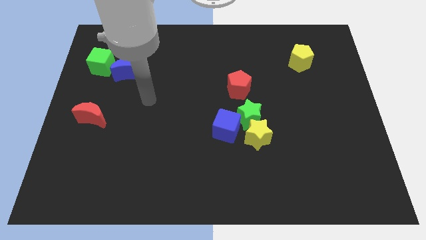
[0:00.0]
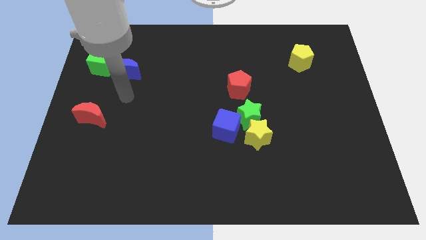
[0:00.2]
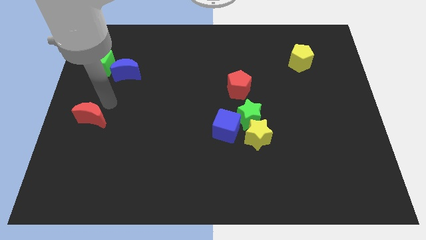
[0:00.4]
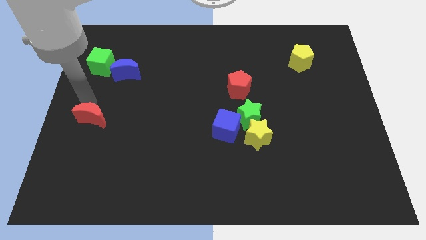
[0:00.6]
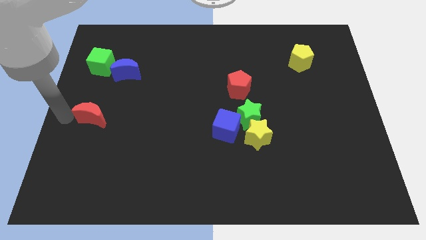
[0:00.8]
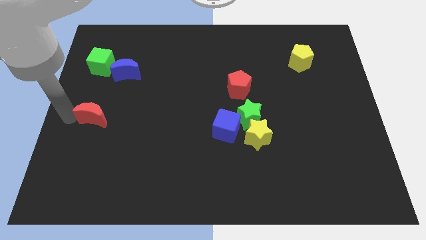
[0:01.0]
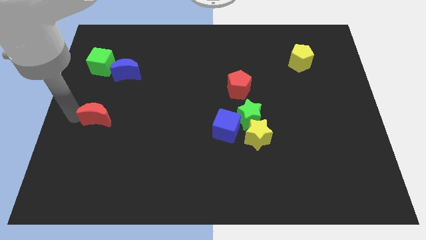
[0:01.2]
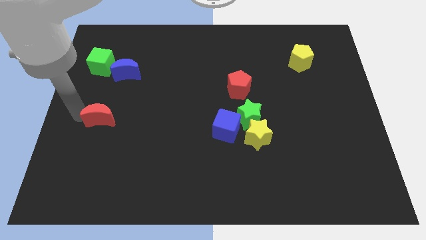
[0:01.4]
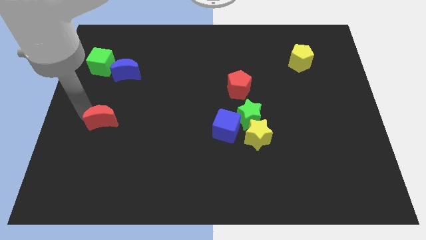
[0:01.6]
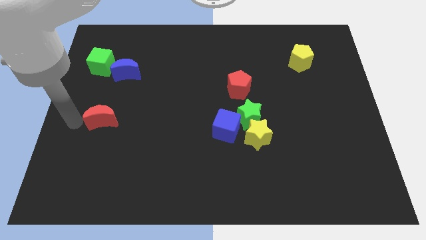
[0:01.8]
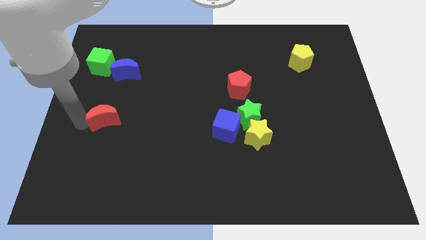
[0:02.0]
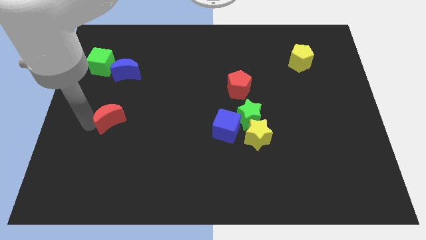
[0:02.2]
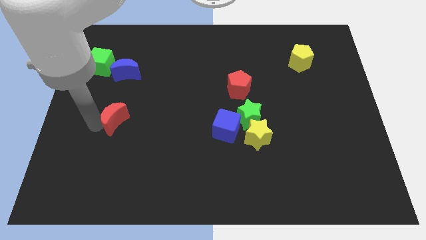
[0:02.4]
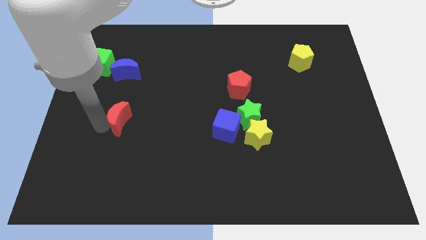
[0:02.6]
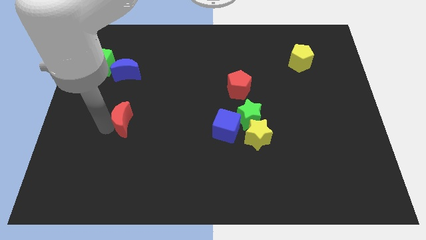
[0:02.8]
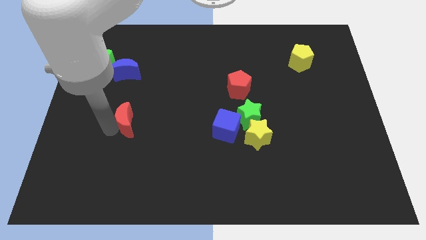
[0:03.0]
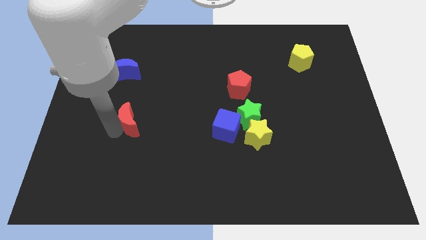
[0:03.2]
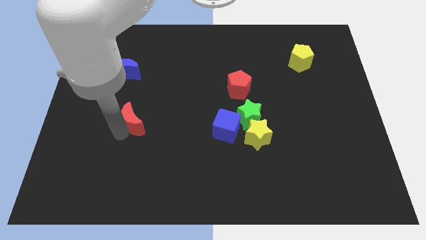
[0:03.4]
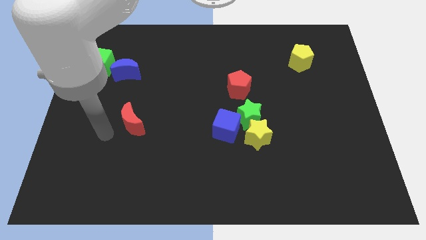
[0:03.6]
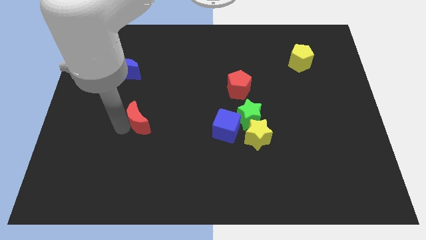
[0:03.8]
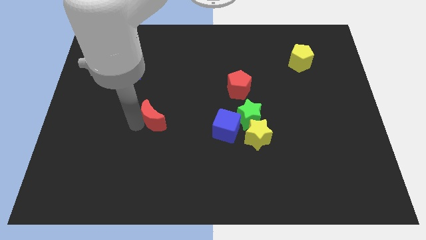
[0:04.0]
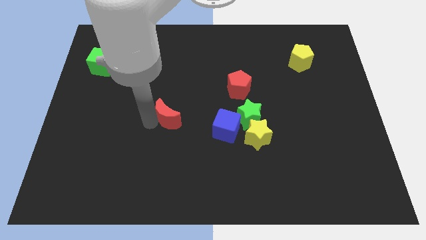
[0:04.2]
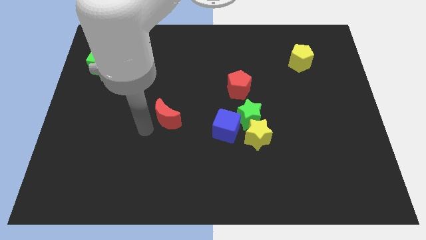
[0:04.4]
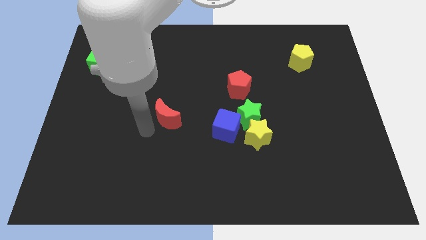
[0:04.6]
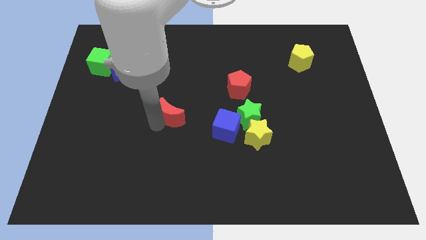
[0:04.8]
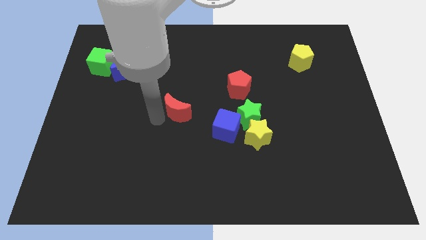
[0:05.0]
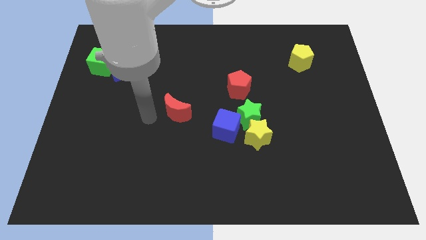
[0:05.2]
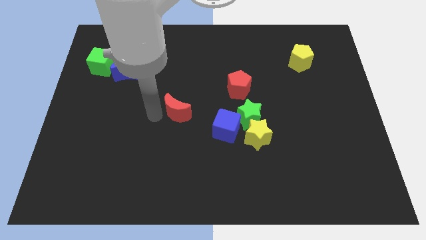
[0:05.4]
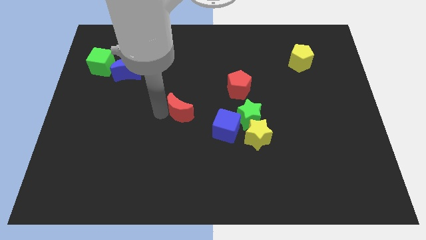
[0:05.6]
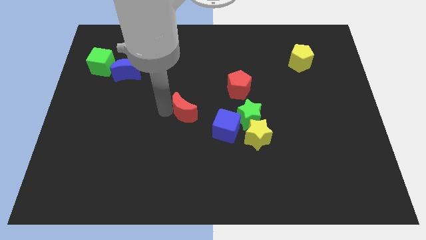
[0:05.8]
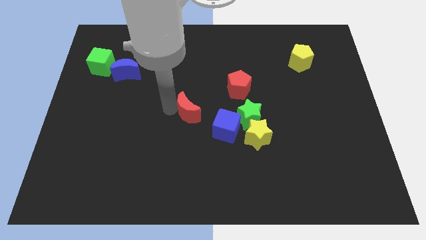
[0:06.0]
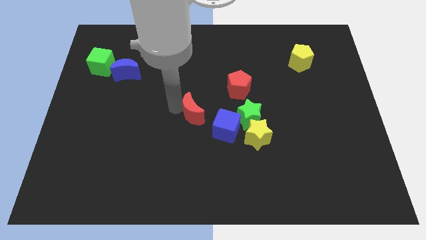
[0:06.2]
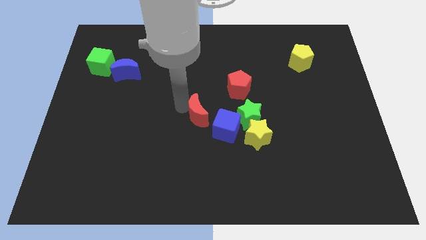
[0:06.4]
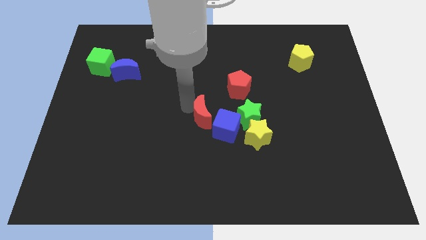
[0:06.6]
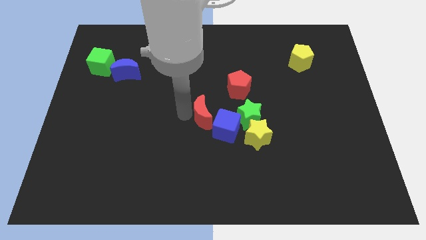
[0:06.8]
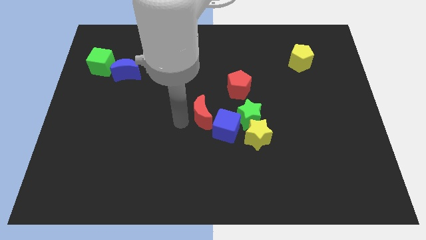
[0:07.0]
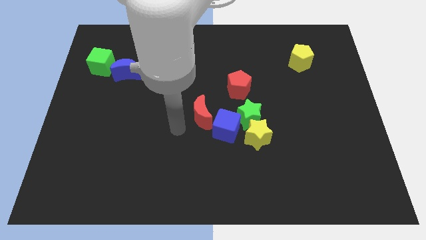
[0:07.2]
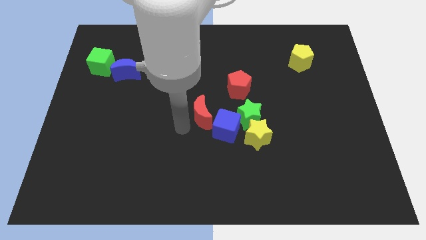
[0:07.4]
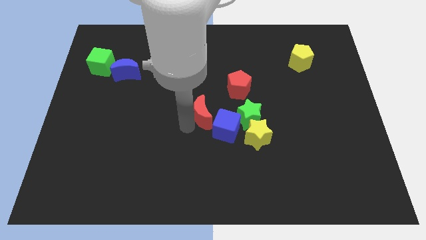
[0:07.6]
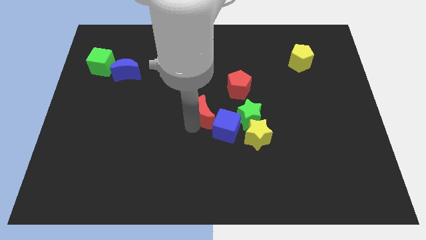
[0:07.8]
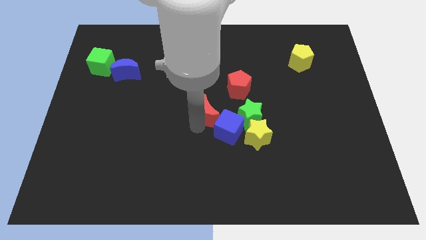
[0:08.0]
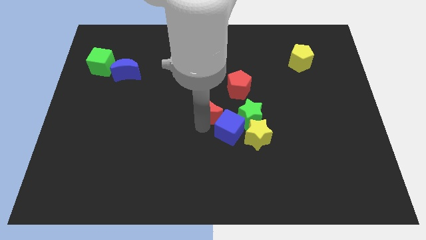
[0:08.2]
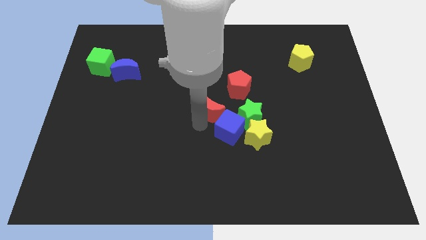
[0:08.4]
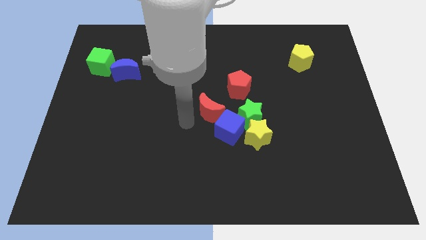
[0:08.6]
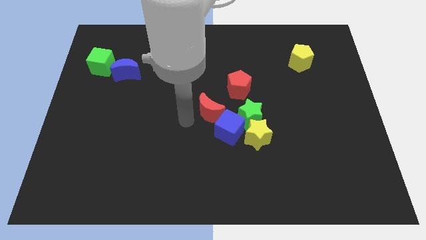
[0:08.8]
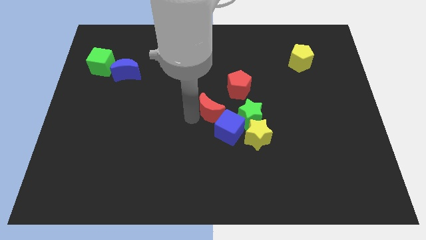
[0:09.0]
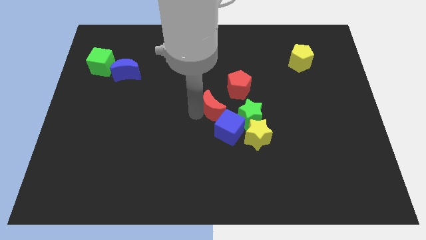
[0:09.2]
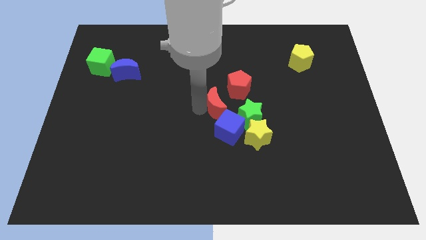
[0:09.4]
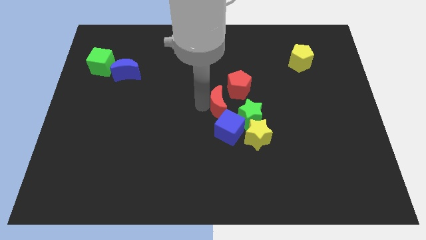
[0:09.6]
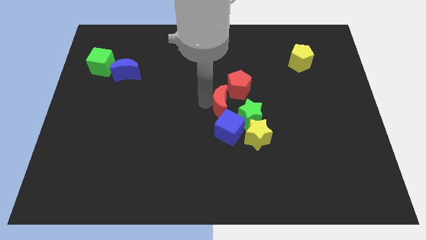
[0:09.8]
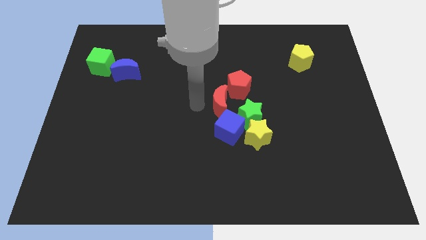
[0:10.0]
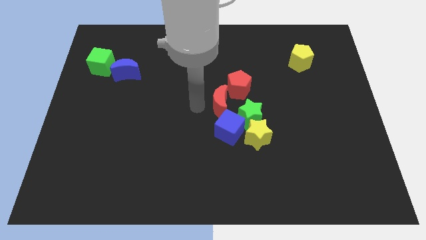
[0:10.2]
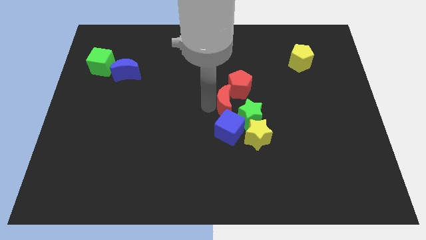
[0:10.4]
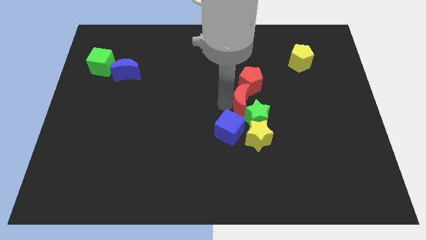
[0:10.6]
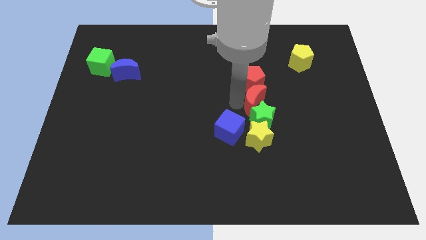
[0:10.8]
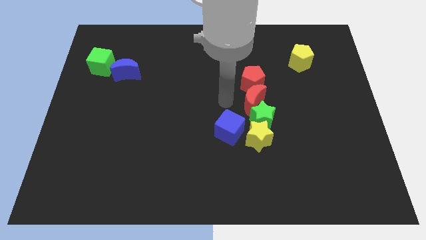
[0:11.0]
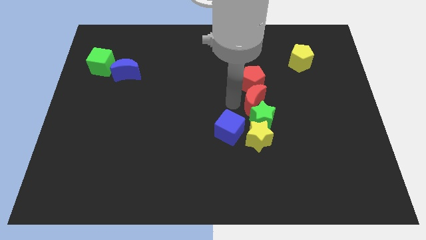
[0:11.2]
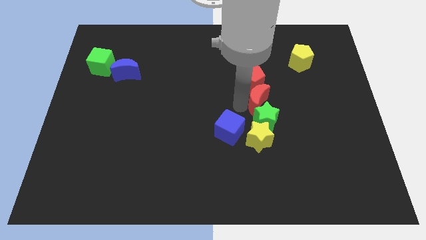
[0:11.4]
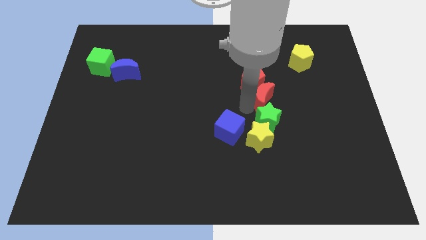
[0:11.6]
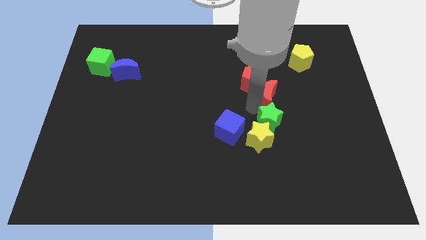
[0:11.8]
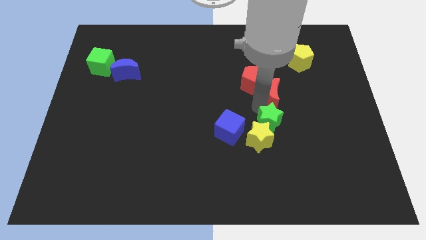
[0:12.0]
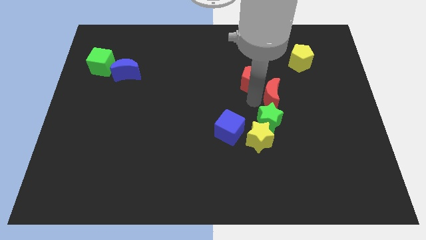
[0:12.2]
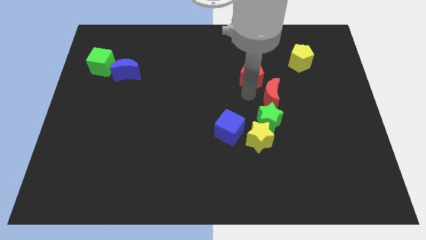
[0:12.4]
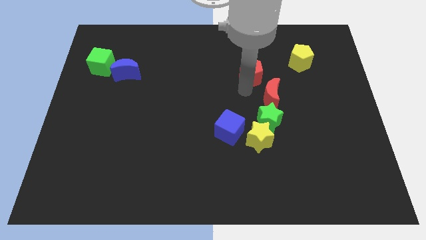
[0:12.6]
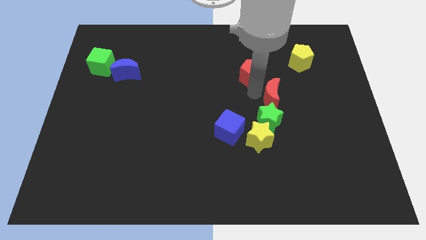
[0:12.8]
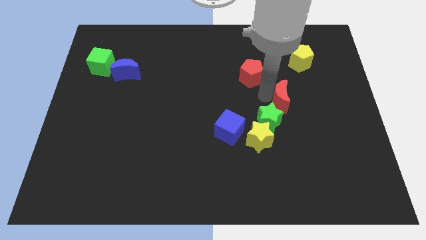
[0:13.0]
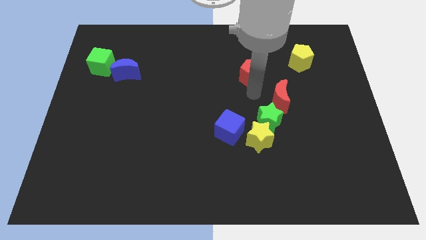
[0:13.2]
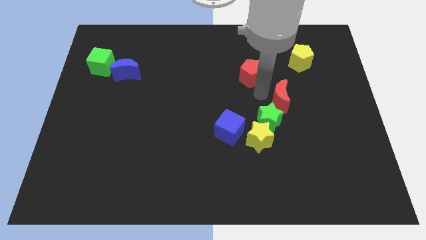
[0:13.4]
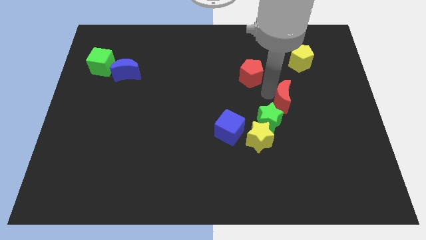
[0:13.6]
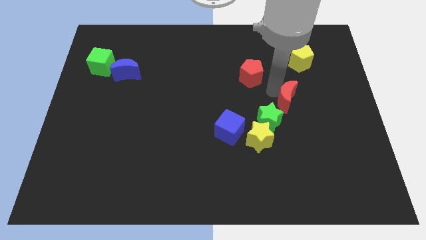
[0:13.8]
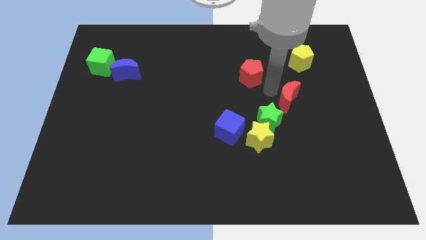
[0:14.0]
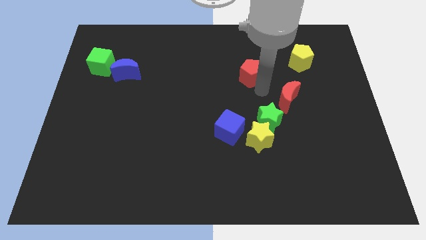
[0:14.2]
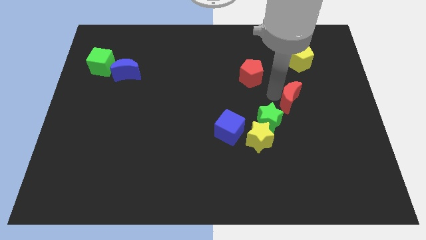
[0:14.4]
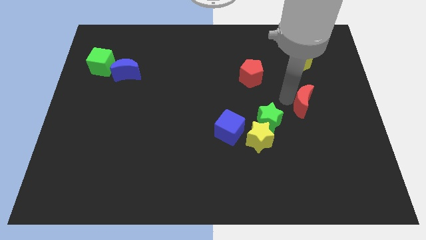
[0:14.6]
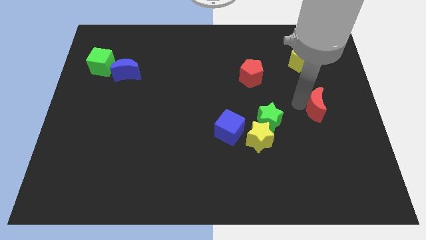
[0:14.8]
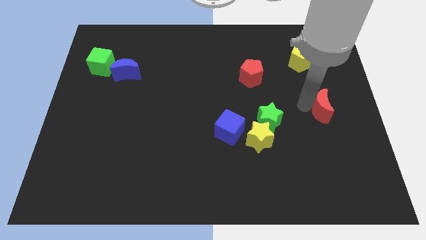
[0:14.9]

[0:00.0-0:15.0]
slide the red moon to the center right
